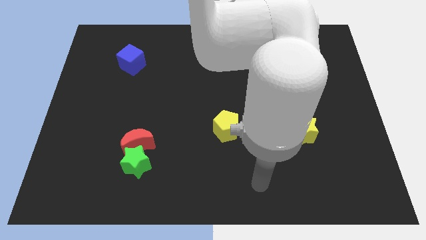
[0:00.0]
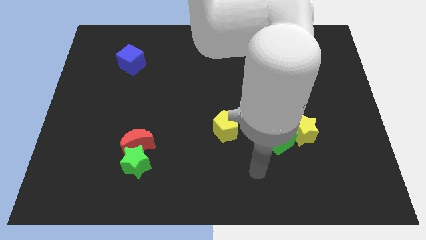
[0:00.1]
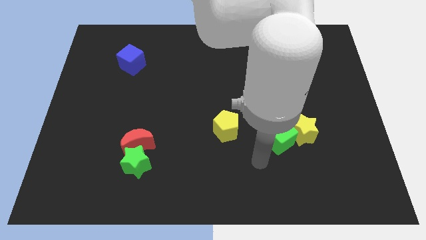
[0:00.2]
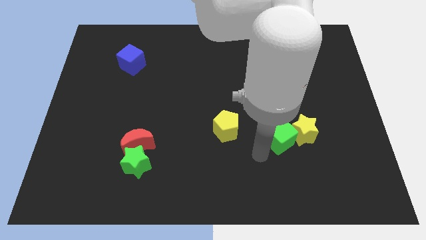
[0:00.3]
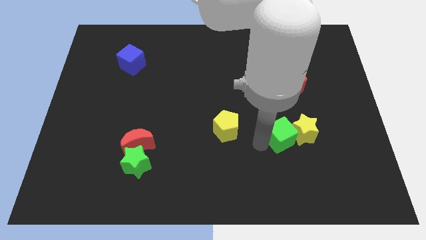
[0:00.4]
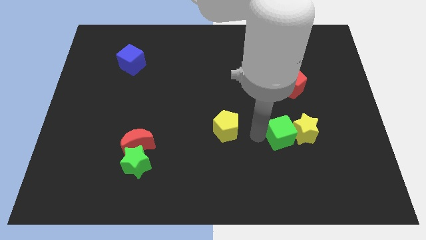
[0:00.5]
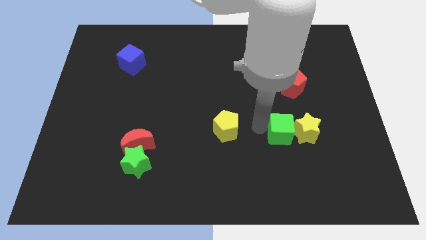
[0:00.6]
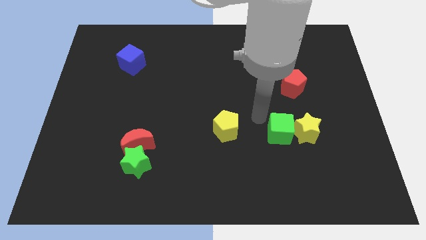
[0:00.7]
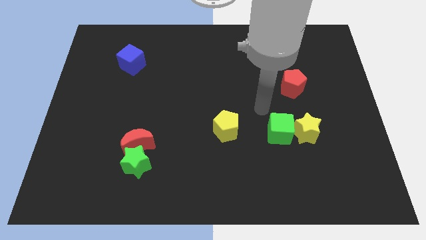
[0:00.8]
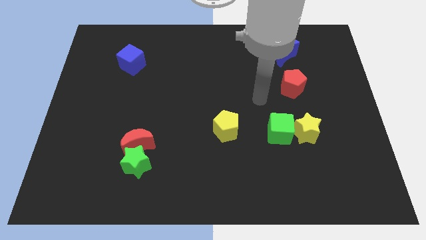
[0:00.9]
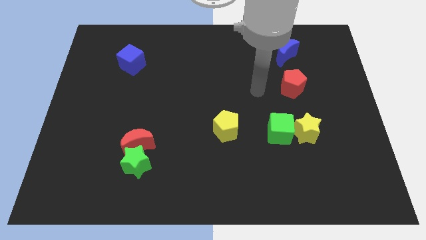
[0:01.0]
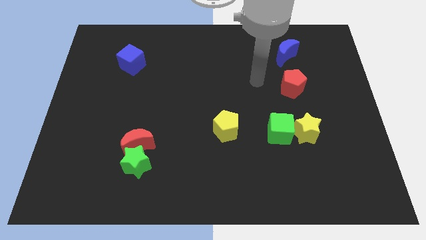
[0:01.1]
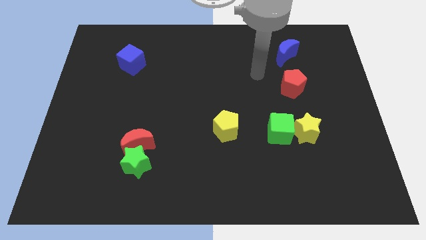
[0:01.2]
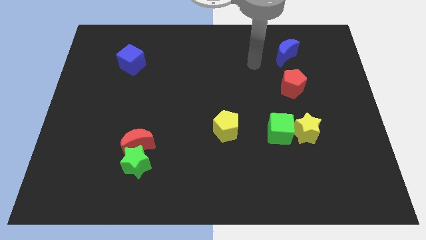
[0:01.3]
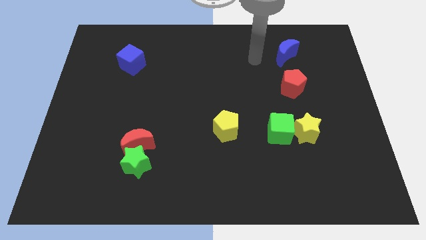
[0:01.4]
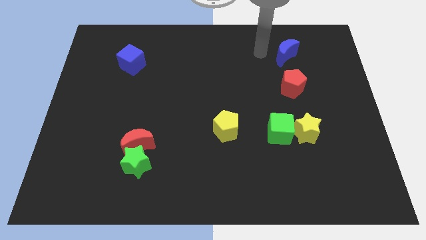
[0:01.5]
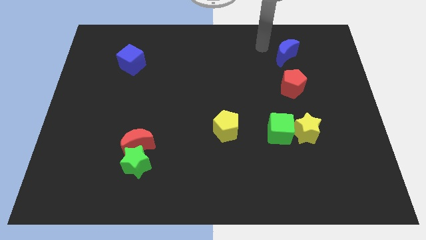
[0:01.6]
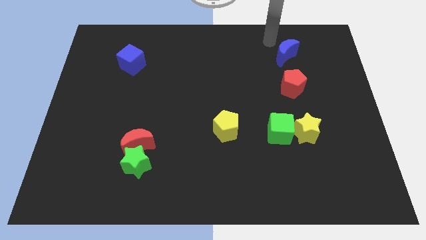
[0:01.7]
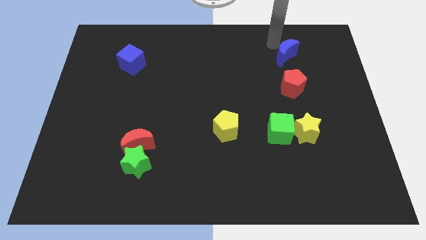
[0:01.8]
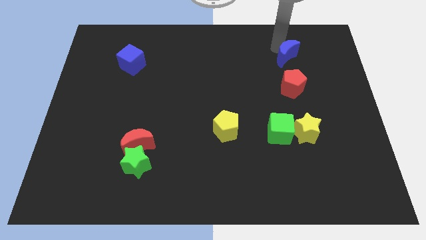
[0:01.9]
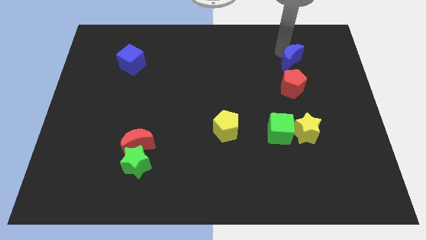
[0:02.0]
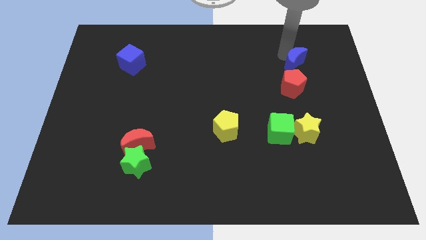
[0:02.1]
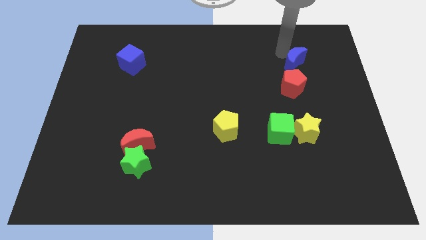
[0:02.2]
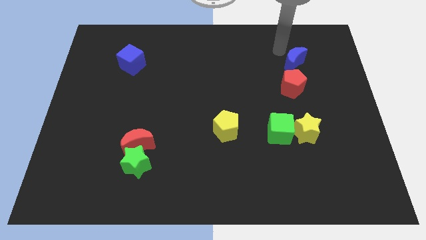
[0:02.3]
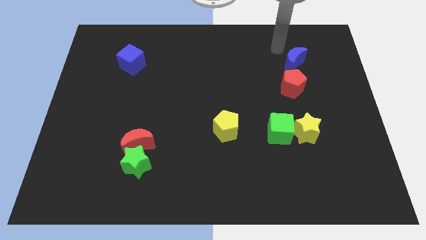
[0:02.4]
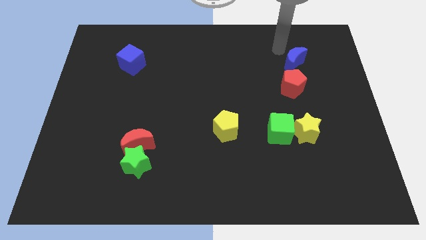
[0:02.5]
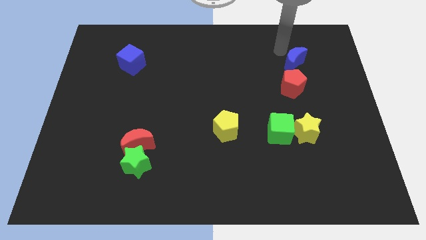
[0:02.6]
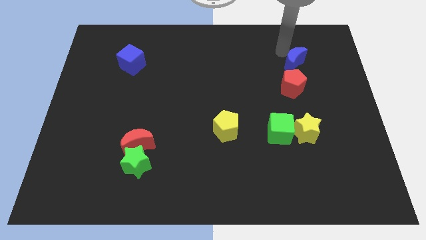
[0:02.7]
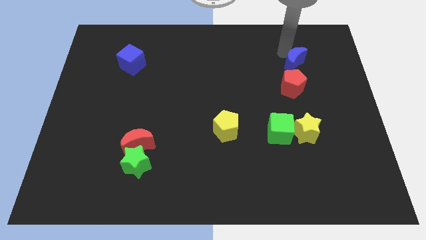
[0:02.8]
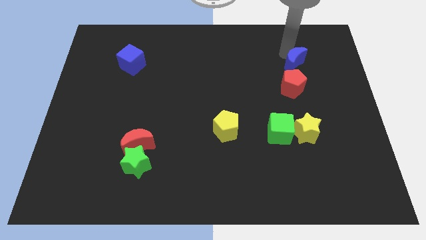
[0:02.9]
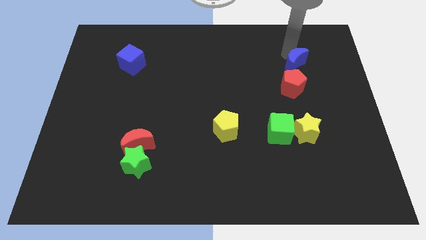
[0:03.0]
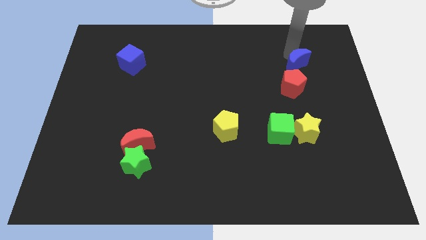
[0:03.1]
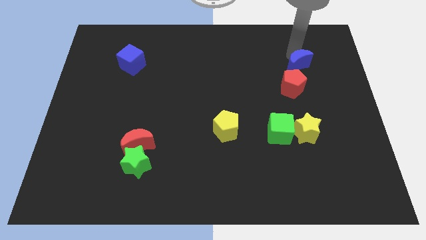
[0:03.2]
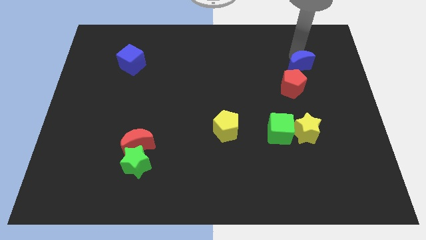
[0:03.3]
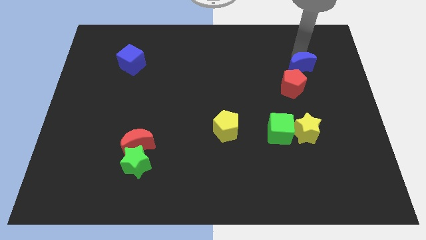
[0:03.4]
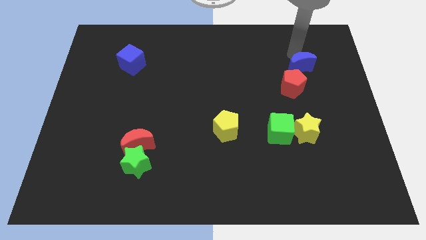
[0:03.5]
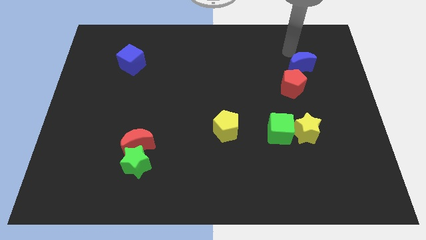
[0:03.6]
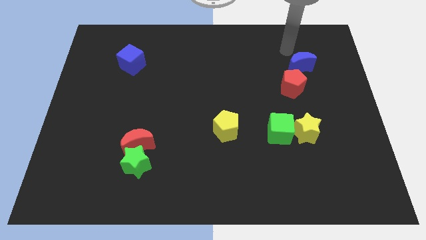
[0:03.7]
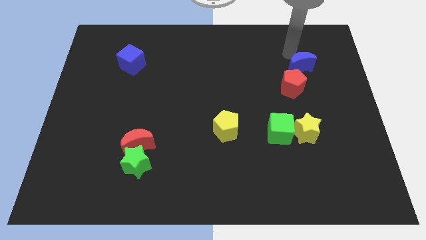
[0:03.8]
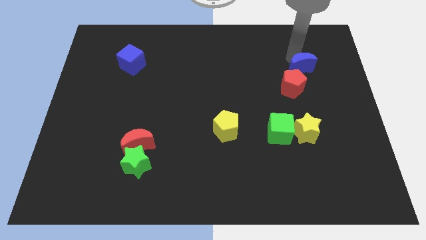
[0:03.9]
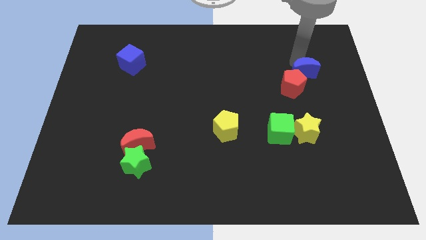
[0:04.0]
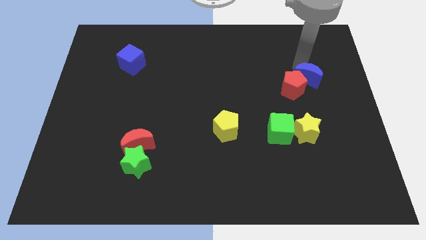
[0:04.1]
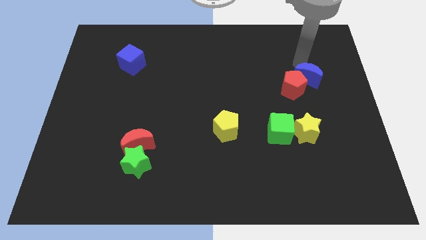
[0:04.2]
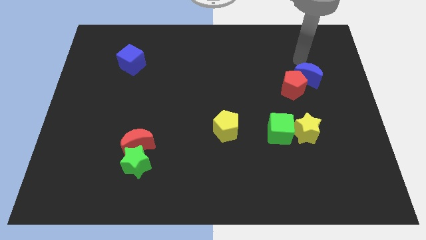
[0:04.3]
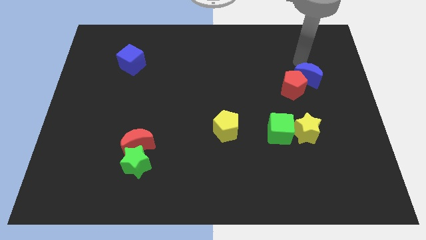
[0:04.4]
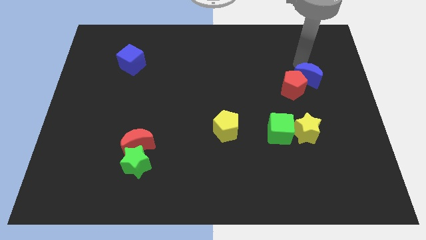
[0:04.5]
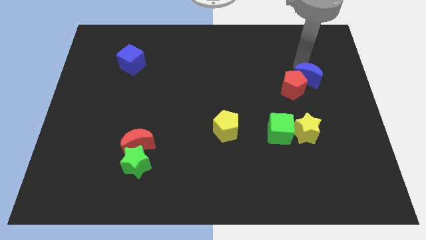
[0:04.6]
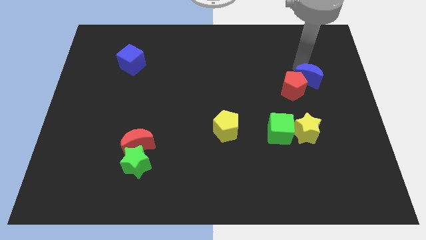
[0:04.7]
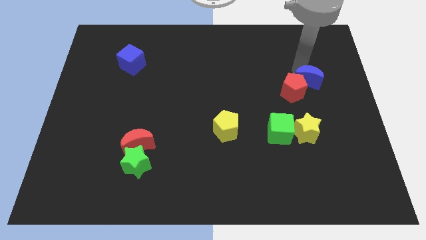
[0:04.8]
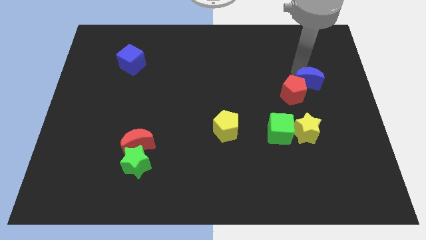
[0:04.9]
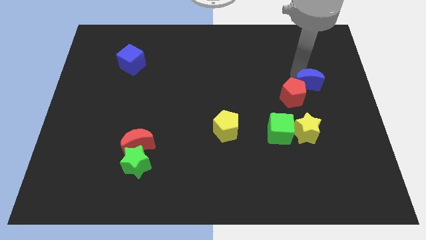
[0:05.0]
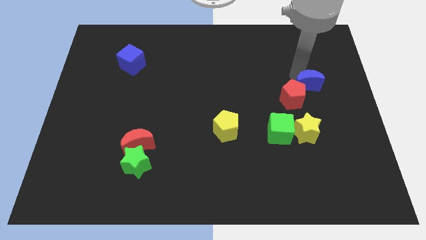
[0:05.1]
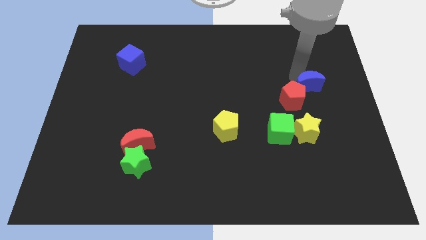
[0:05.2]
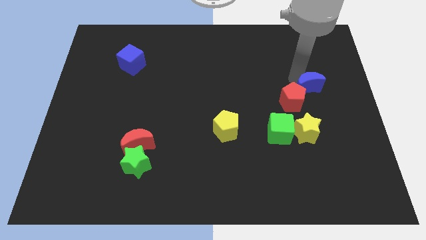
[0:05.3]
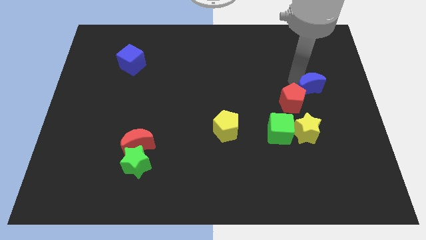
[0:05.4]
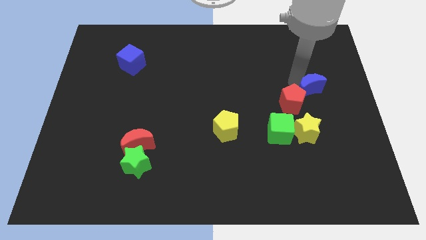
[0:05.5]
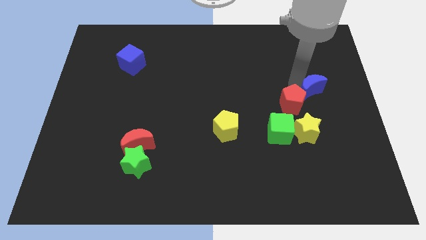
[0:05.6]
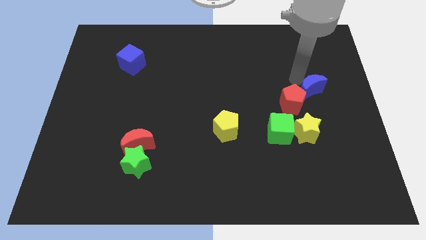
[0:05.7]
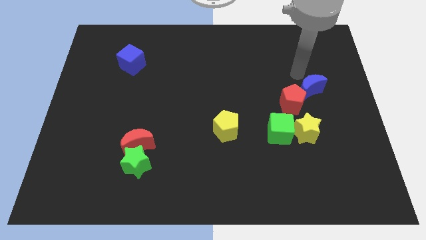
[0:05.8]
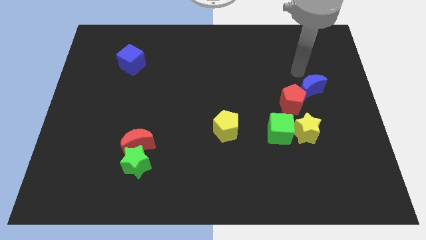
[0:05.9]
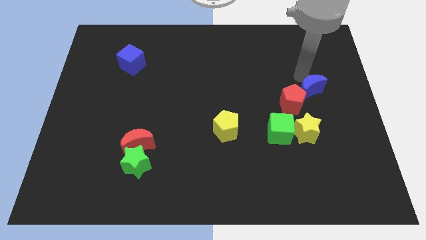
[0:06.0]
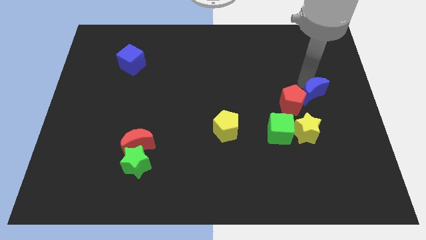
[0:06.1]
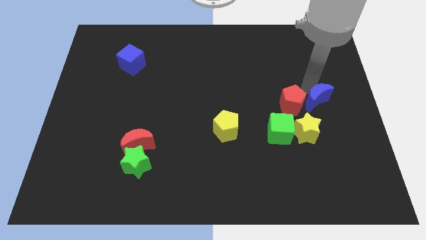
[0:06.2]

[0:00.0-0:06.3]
slide the blue moon to the top right side of the yellow star

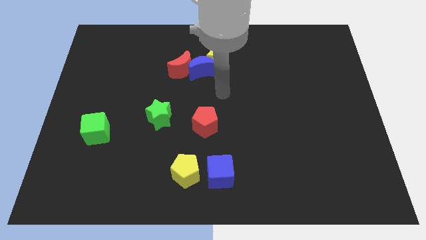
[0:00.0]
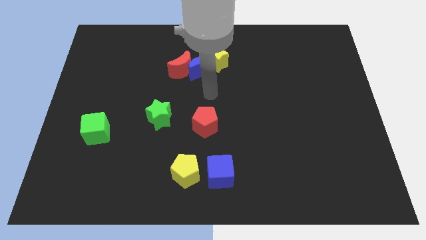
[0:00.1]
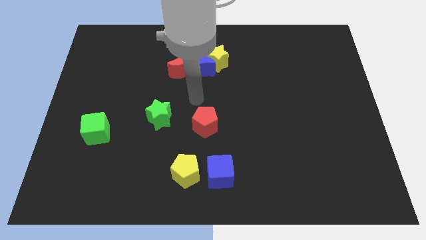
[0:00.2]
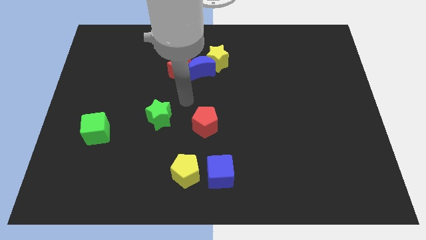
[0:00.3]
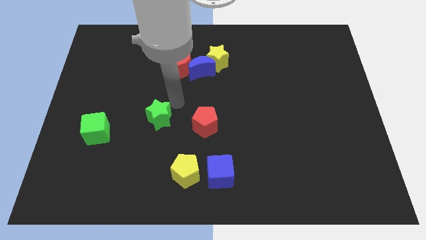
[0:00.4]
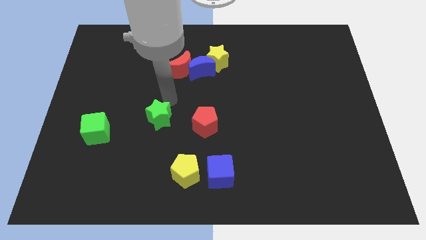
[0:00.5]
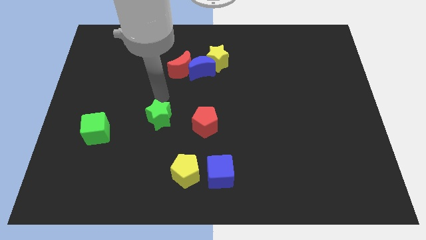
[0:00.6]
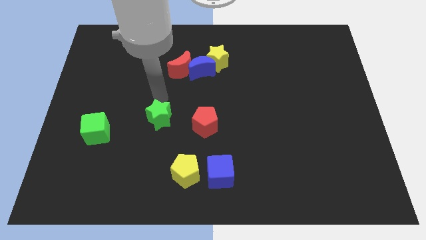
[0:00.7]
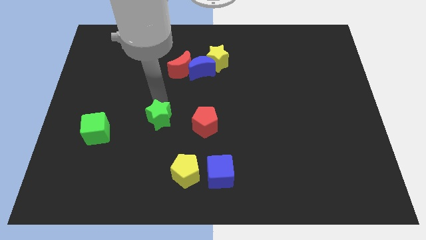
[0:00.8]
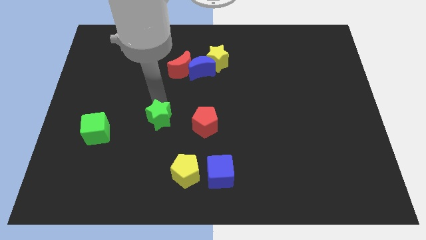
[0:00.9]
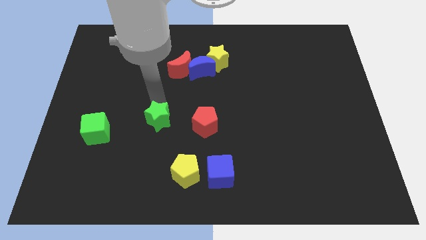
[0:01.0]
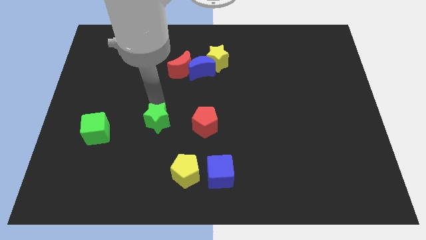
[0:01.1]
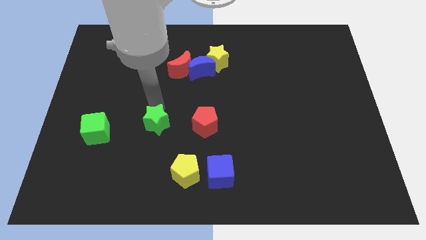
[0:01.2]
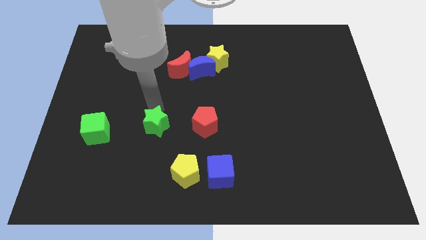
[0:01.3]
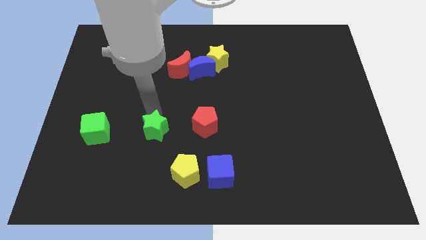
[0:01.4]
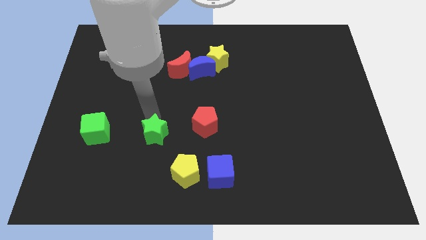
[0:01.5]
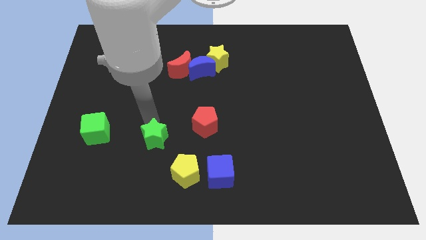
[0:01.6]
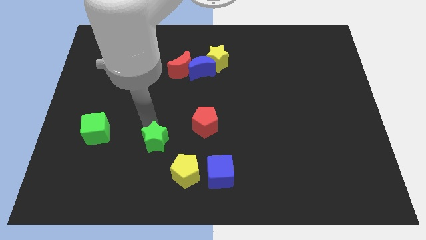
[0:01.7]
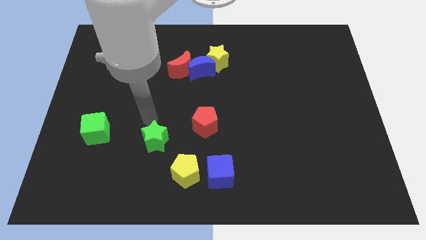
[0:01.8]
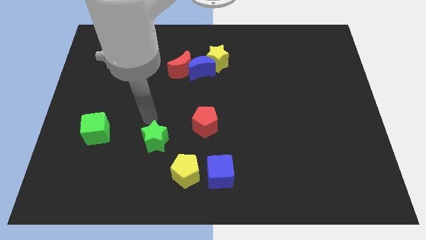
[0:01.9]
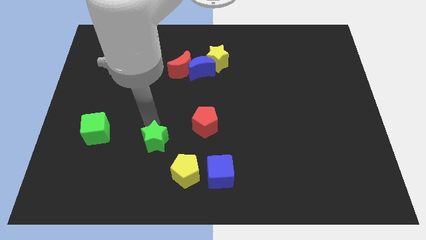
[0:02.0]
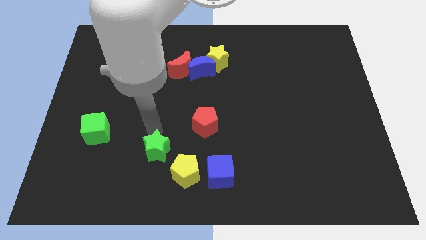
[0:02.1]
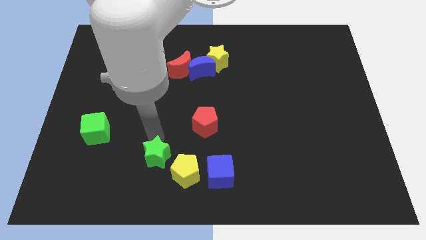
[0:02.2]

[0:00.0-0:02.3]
slide the green star left of the blue cube
